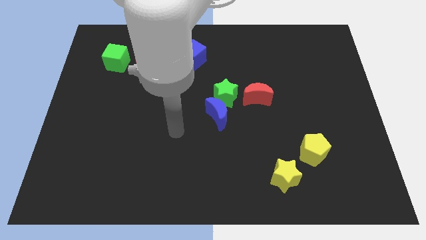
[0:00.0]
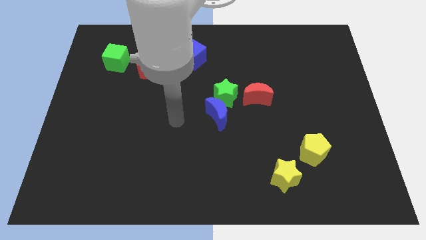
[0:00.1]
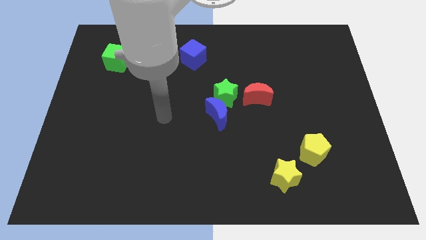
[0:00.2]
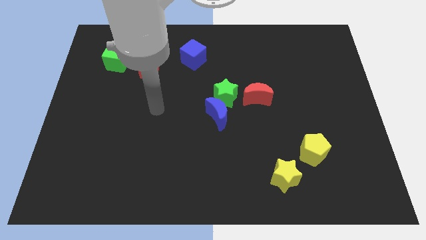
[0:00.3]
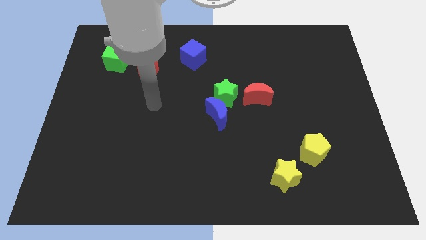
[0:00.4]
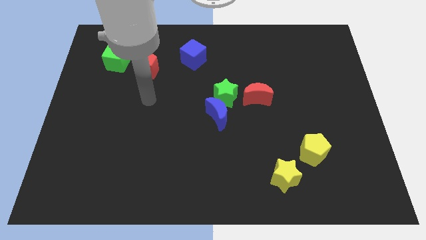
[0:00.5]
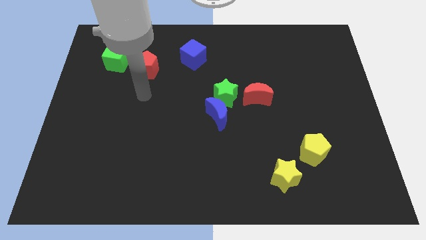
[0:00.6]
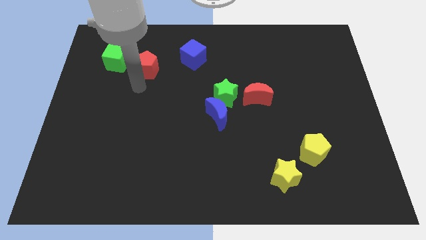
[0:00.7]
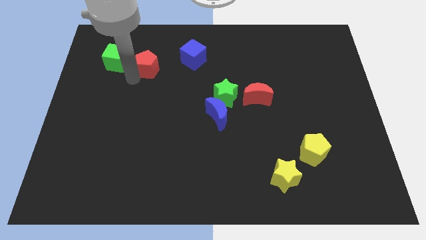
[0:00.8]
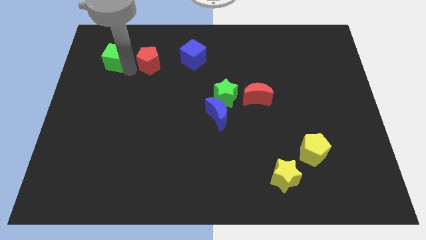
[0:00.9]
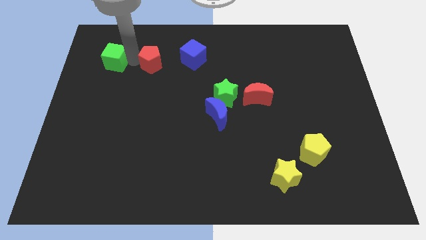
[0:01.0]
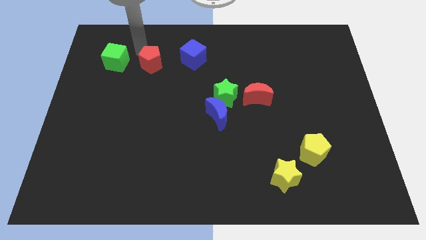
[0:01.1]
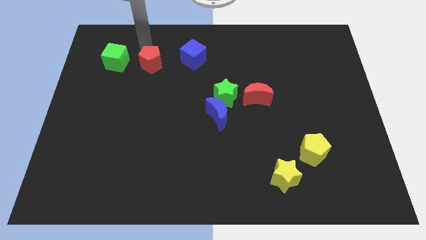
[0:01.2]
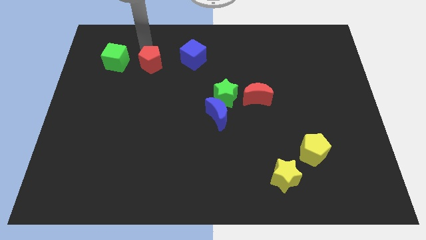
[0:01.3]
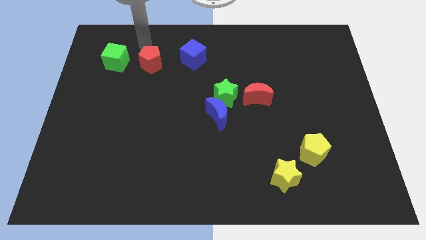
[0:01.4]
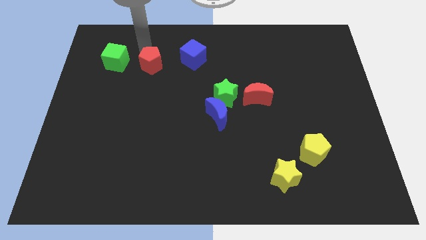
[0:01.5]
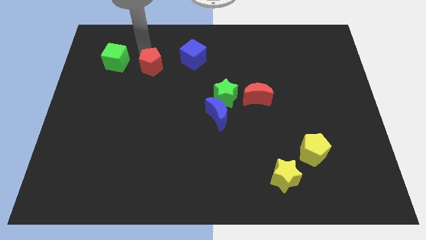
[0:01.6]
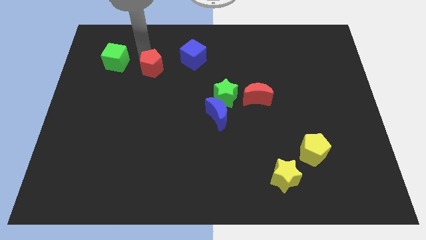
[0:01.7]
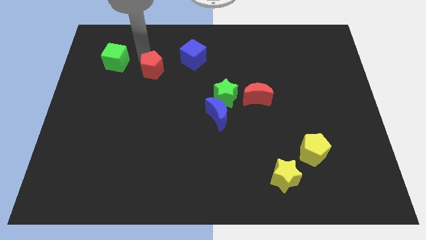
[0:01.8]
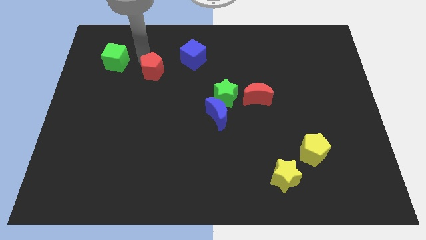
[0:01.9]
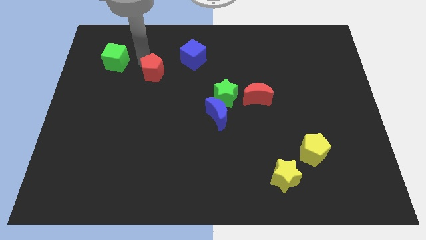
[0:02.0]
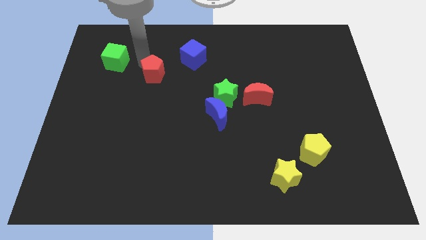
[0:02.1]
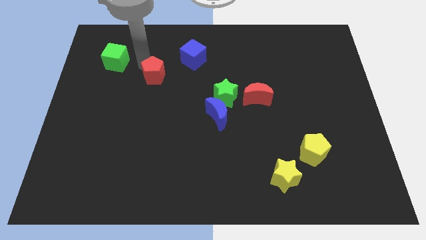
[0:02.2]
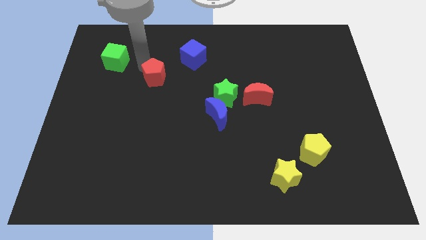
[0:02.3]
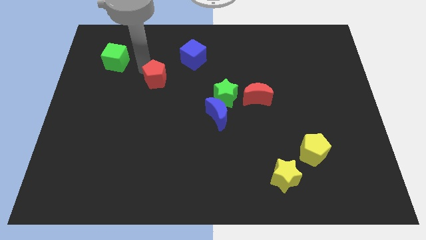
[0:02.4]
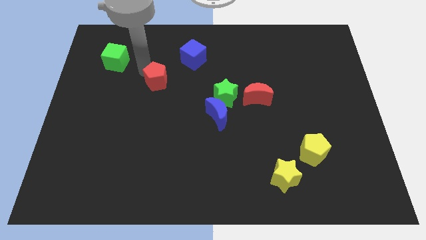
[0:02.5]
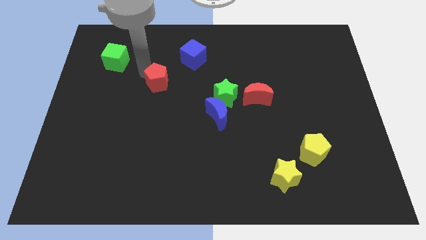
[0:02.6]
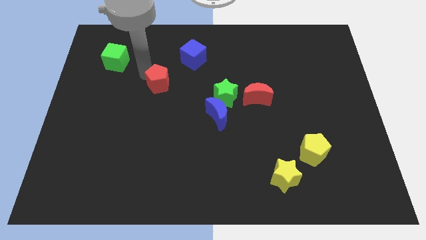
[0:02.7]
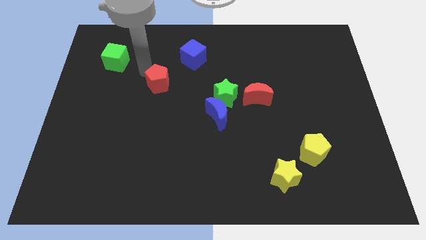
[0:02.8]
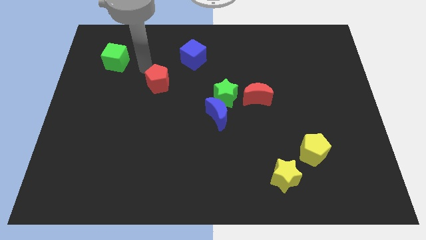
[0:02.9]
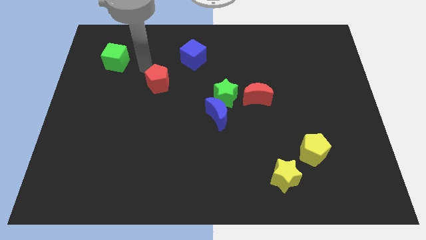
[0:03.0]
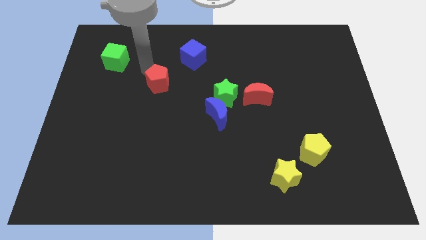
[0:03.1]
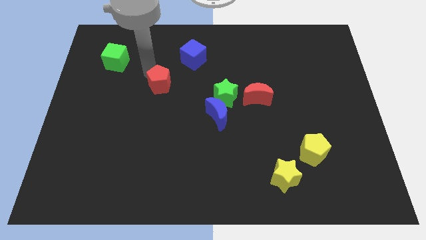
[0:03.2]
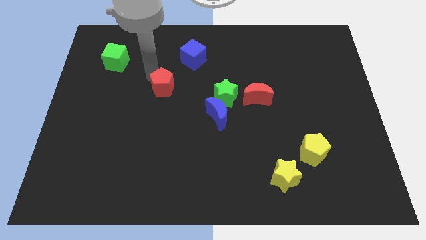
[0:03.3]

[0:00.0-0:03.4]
slide the red pentagon downwards and to the right somewhat

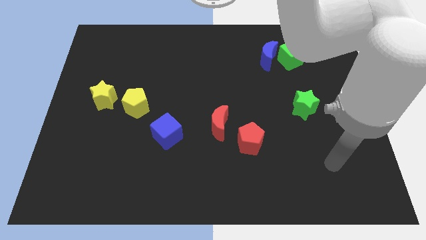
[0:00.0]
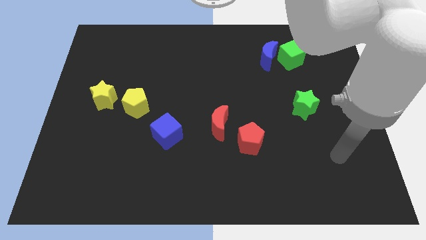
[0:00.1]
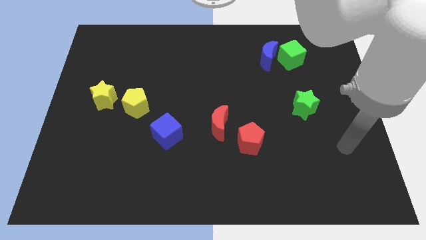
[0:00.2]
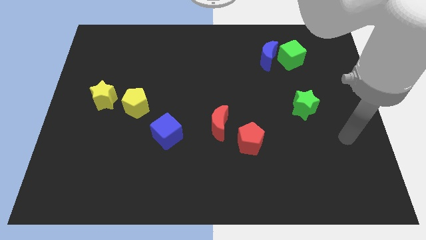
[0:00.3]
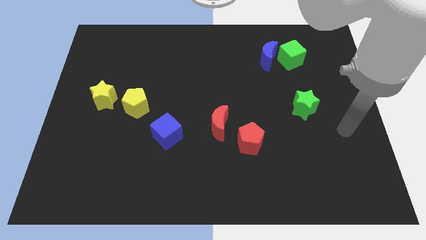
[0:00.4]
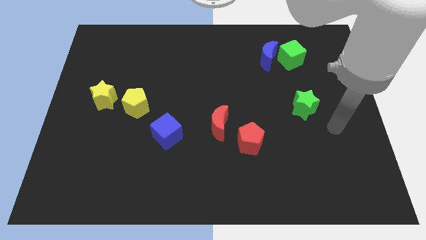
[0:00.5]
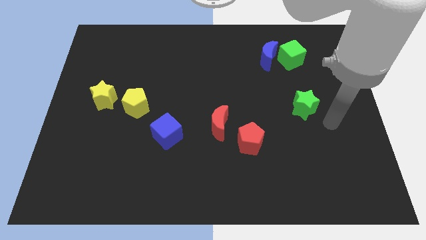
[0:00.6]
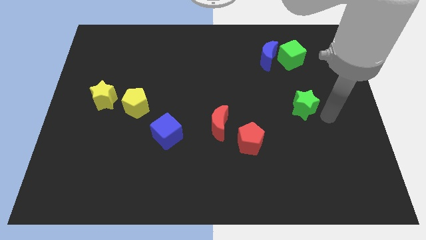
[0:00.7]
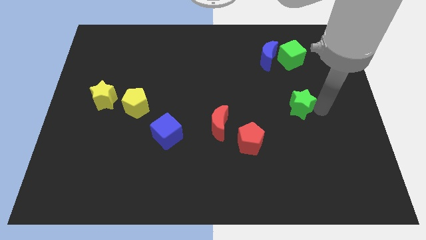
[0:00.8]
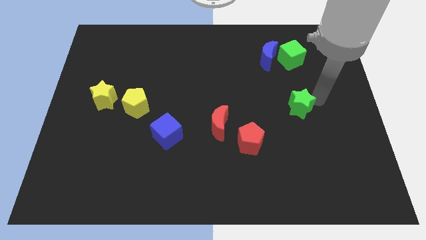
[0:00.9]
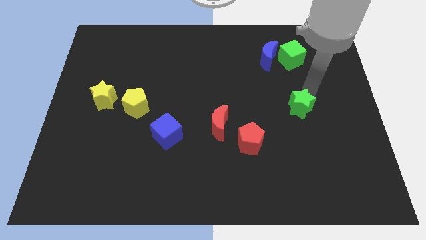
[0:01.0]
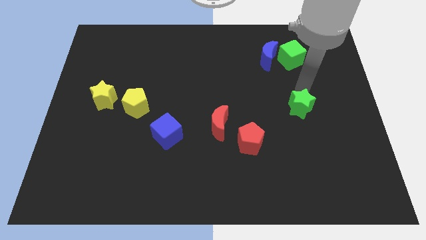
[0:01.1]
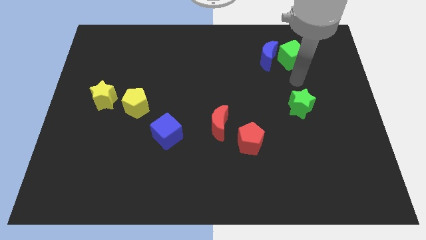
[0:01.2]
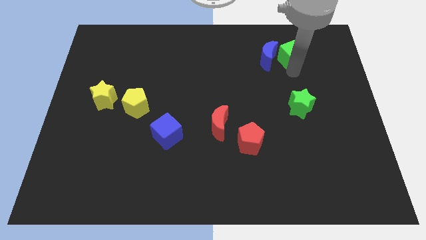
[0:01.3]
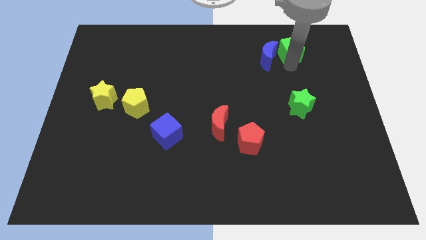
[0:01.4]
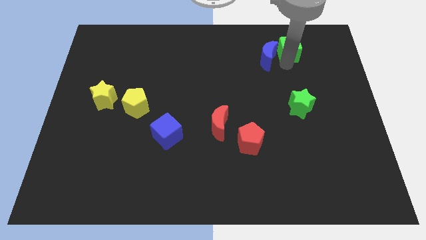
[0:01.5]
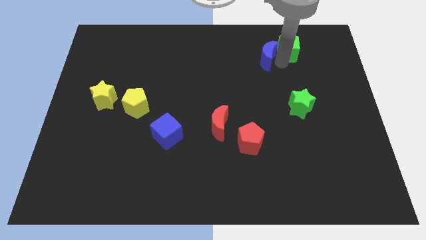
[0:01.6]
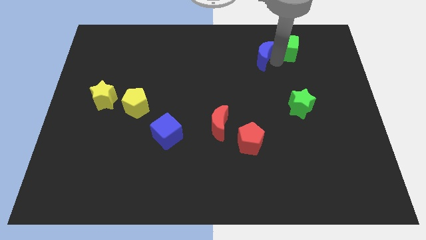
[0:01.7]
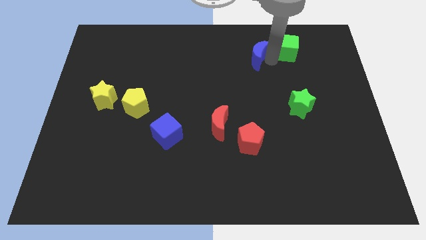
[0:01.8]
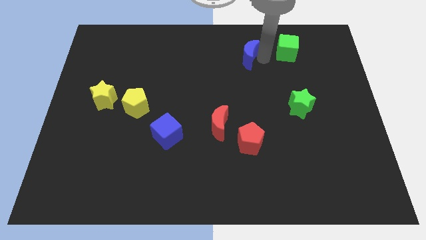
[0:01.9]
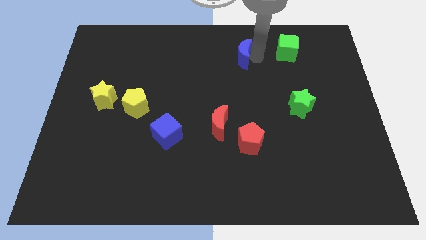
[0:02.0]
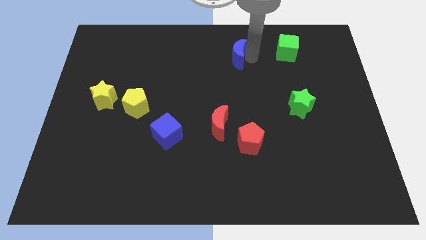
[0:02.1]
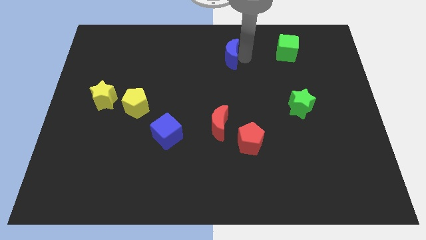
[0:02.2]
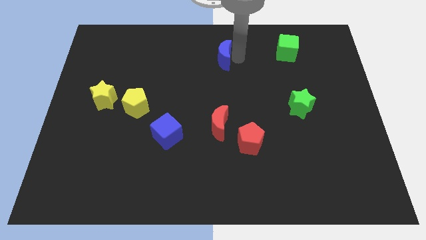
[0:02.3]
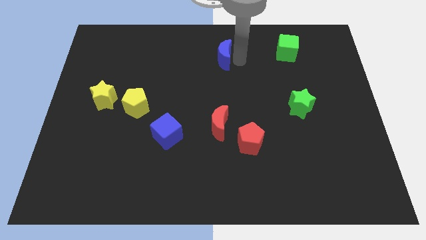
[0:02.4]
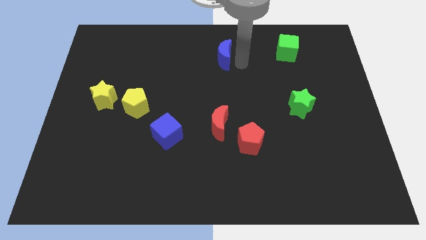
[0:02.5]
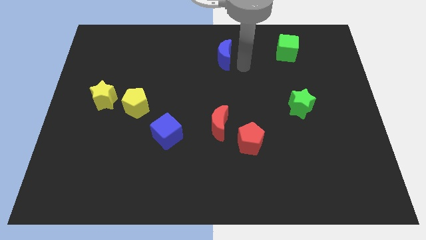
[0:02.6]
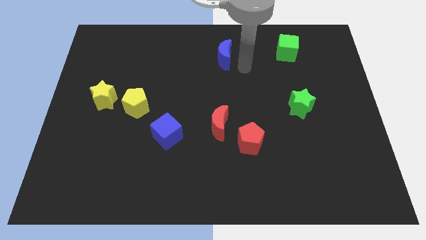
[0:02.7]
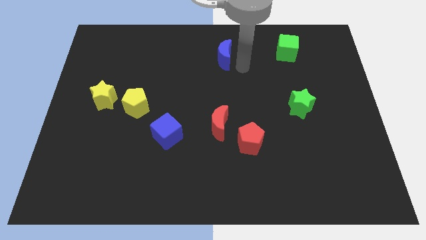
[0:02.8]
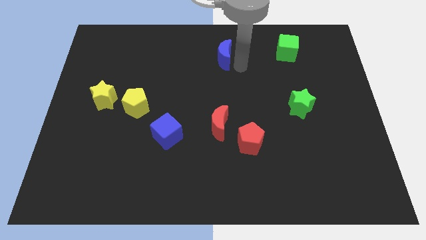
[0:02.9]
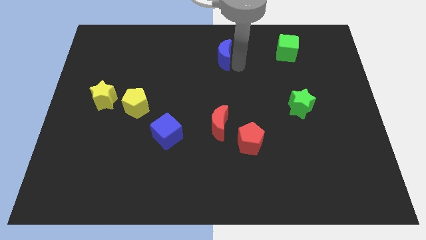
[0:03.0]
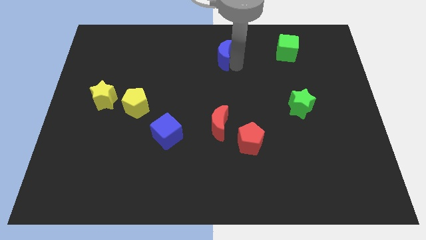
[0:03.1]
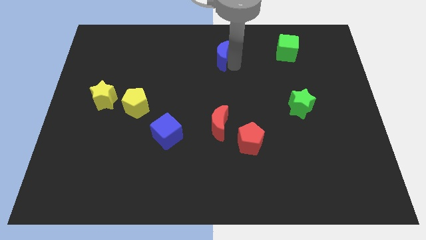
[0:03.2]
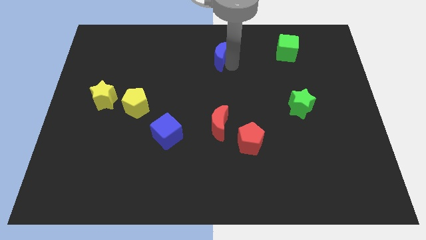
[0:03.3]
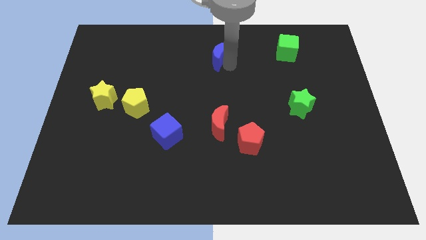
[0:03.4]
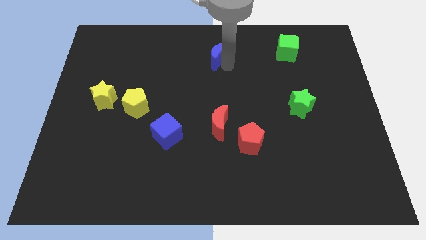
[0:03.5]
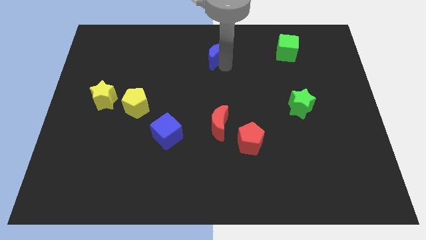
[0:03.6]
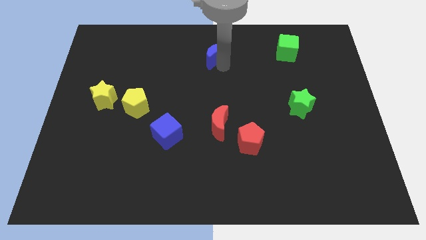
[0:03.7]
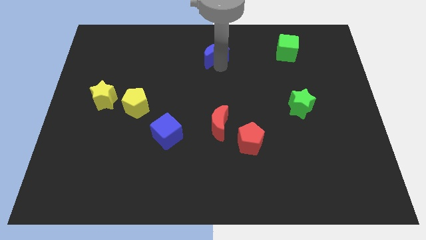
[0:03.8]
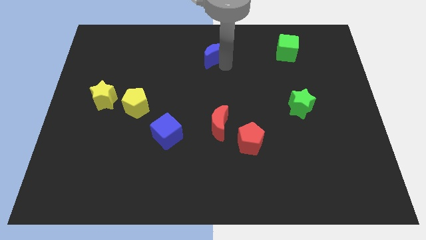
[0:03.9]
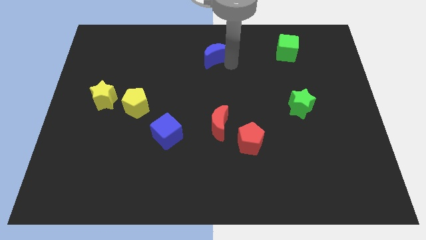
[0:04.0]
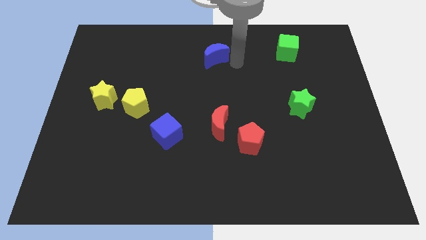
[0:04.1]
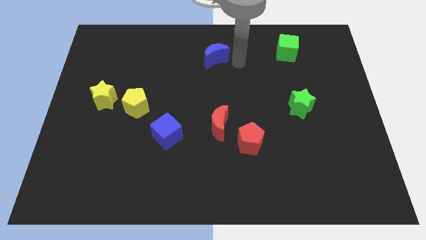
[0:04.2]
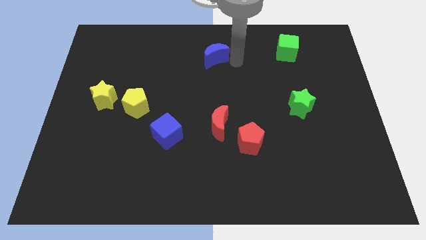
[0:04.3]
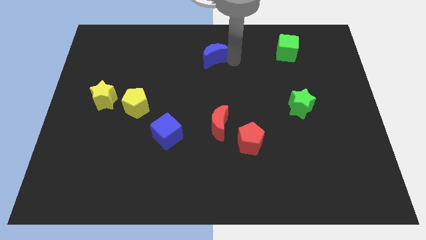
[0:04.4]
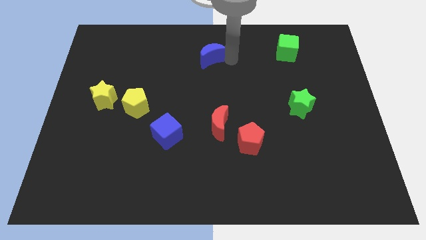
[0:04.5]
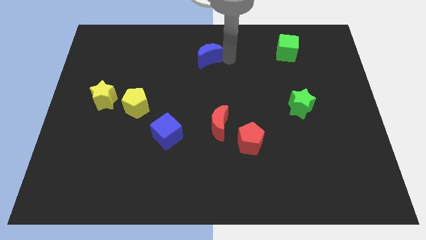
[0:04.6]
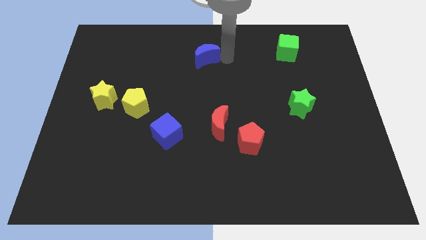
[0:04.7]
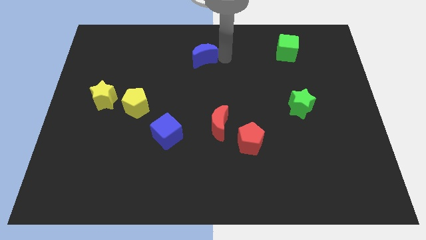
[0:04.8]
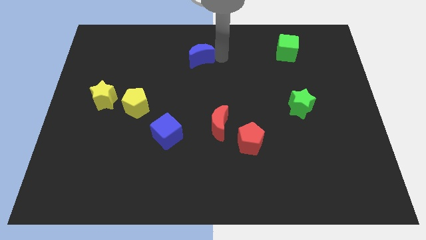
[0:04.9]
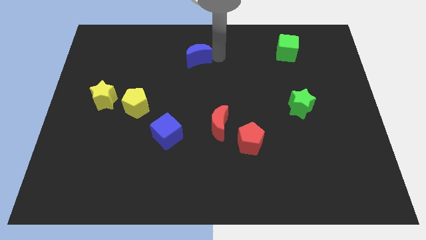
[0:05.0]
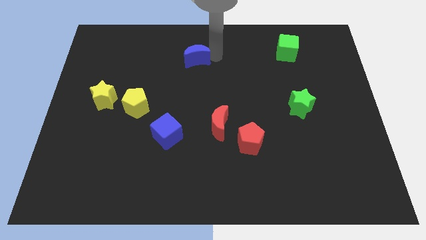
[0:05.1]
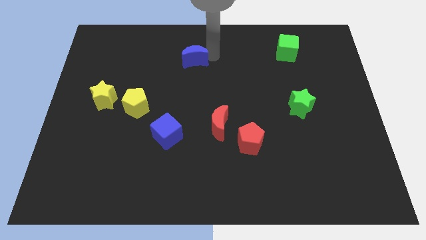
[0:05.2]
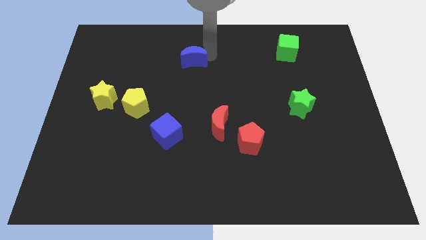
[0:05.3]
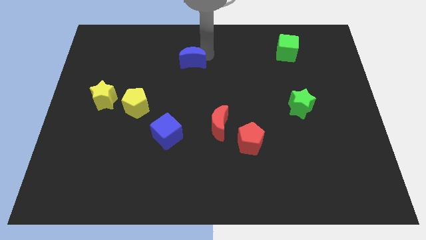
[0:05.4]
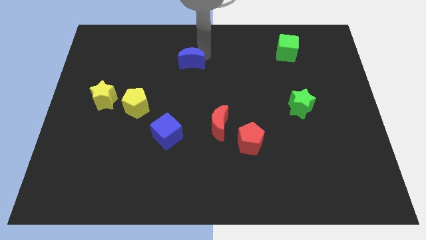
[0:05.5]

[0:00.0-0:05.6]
move the blue moon to the left
